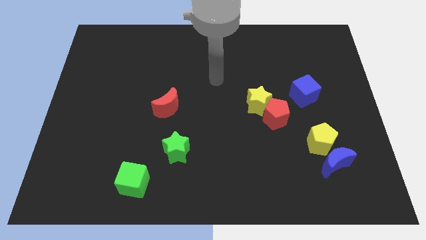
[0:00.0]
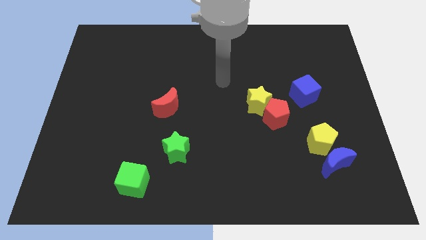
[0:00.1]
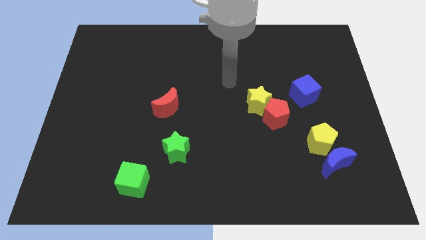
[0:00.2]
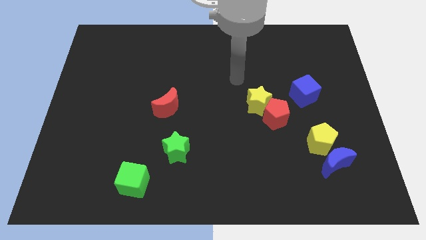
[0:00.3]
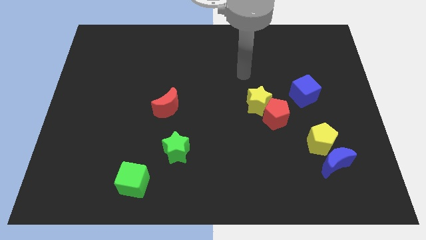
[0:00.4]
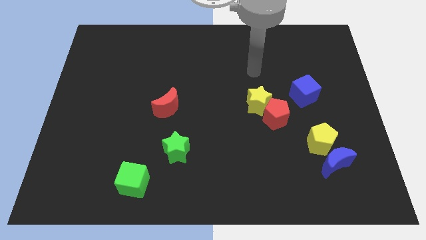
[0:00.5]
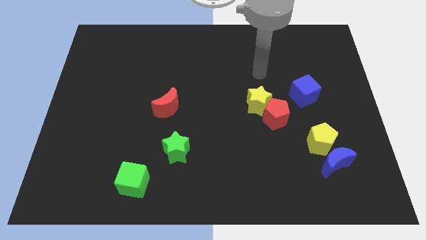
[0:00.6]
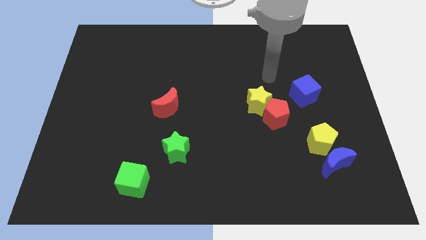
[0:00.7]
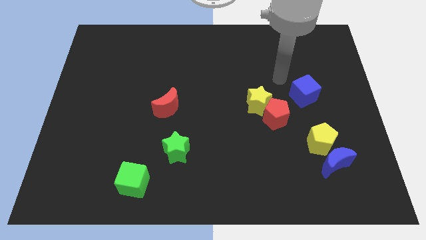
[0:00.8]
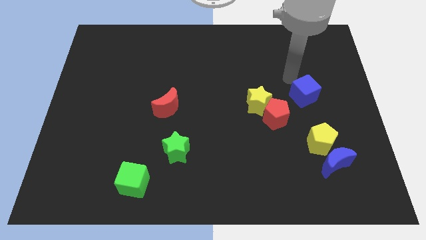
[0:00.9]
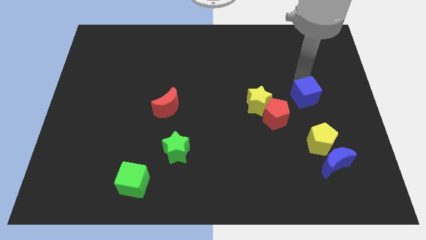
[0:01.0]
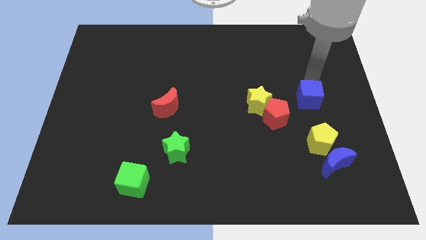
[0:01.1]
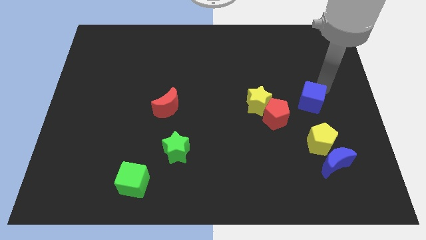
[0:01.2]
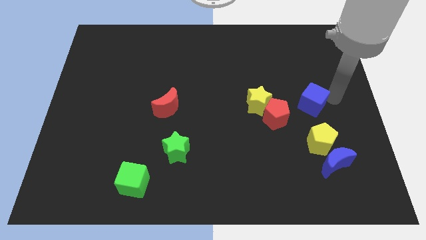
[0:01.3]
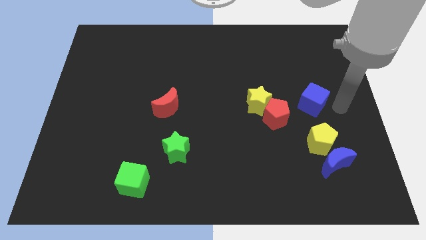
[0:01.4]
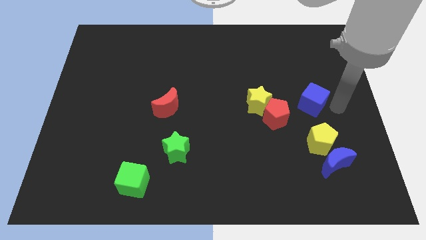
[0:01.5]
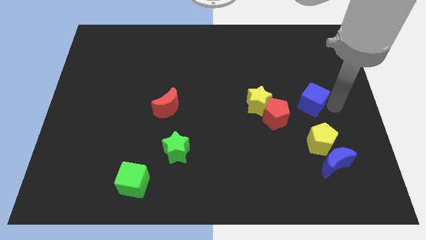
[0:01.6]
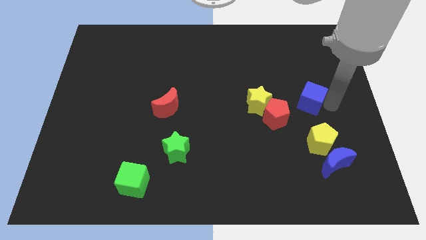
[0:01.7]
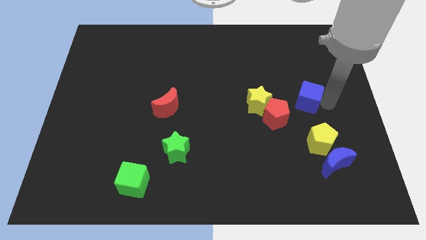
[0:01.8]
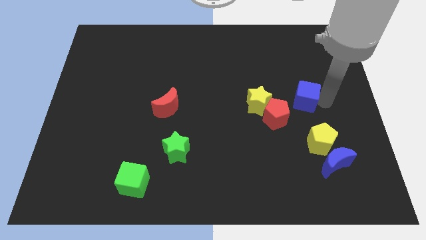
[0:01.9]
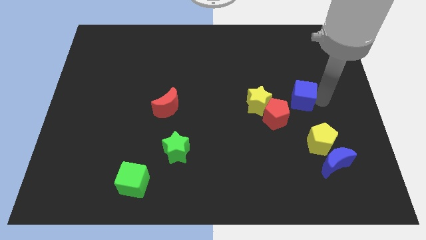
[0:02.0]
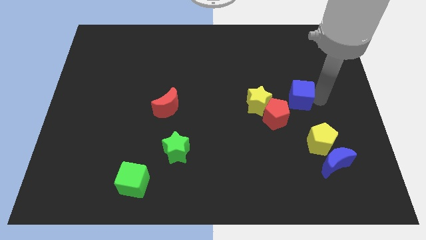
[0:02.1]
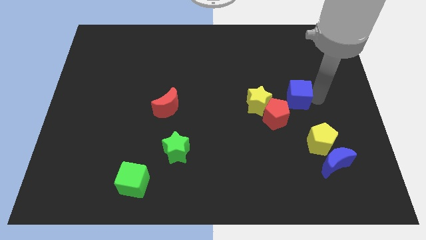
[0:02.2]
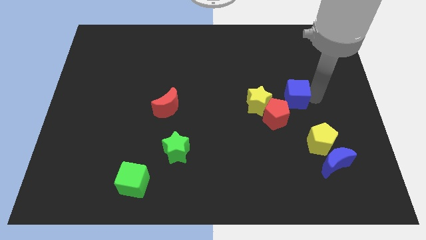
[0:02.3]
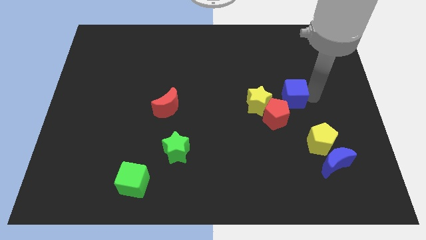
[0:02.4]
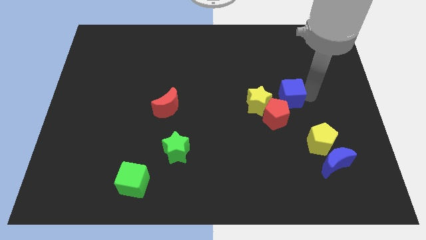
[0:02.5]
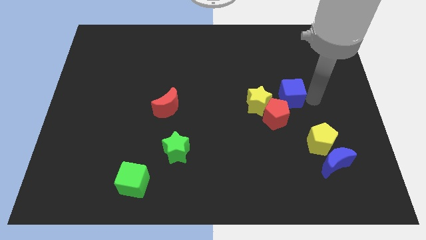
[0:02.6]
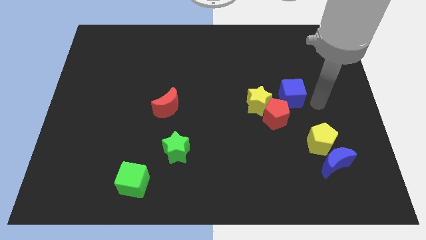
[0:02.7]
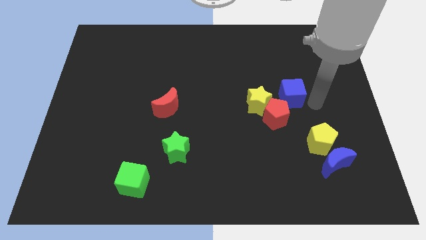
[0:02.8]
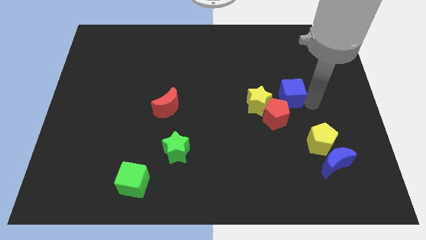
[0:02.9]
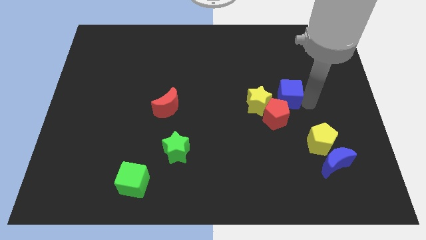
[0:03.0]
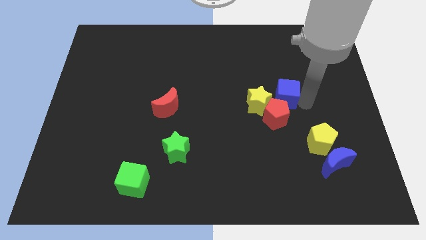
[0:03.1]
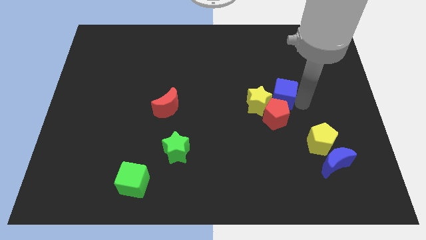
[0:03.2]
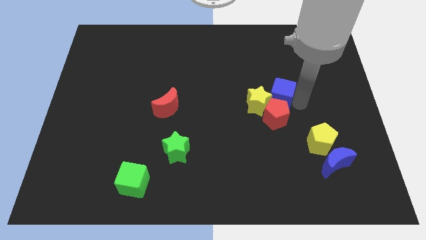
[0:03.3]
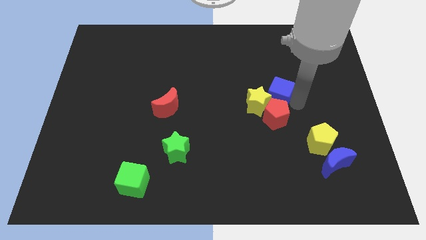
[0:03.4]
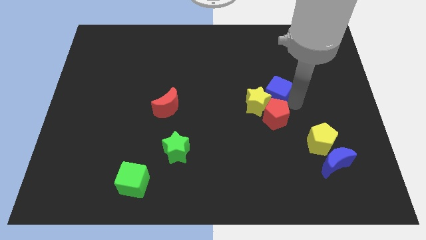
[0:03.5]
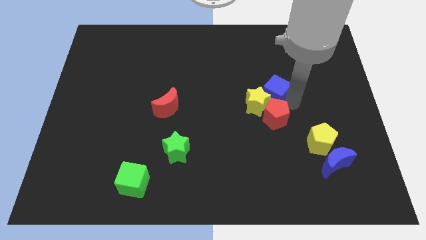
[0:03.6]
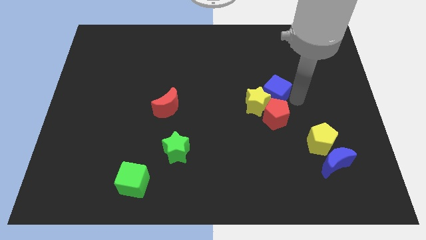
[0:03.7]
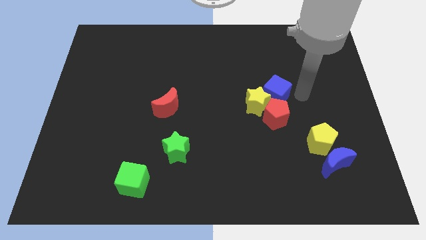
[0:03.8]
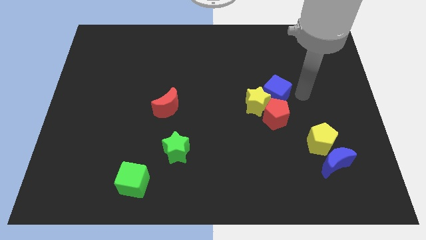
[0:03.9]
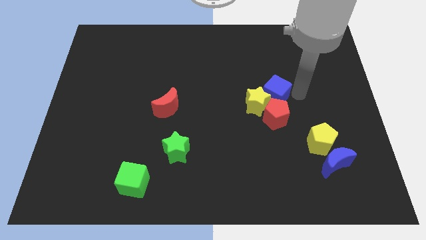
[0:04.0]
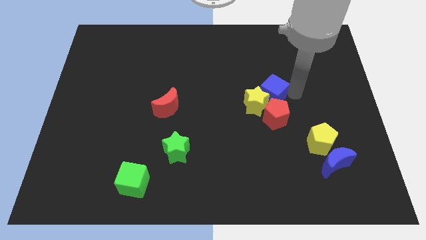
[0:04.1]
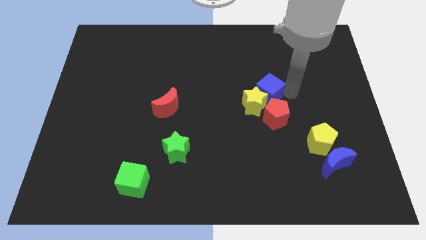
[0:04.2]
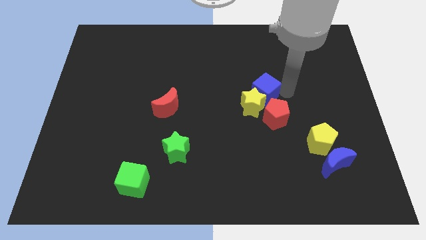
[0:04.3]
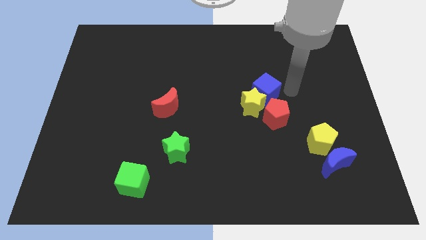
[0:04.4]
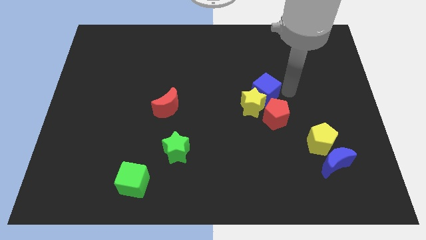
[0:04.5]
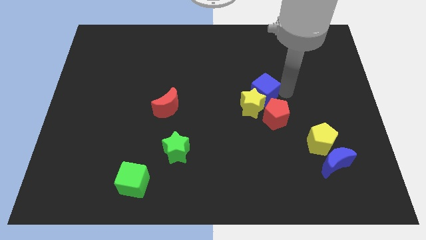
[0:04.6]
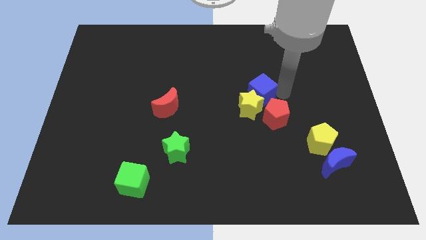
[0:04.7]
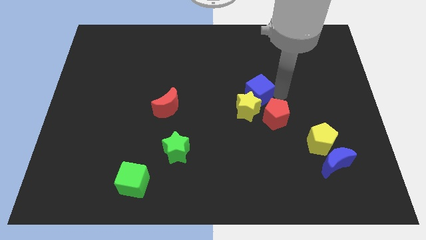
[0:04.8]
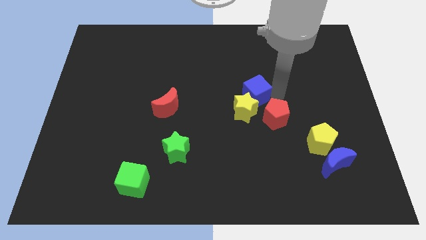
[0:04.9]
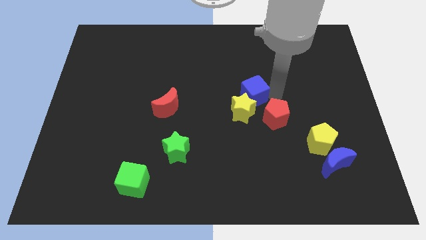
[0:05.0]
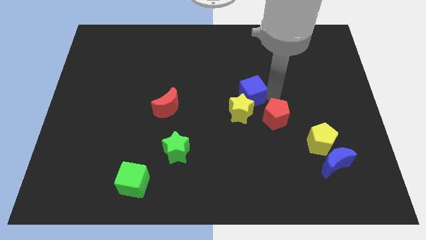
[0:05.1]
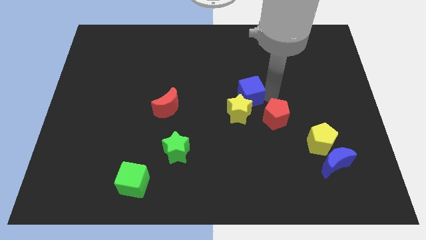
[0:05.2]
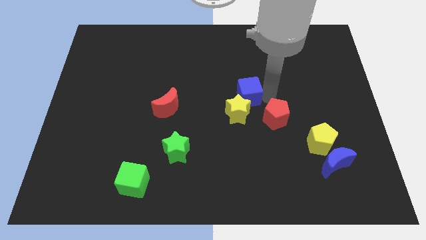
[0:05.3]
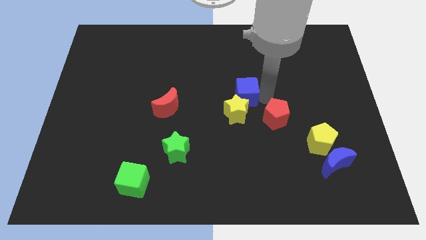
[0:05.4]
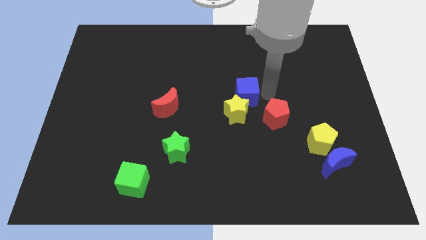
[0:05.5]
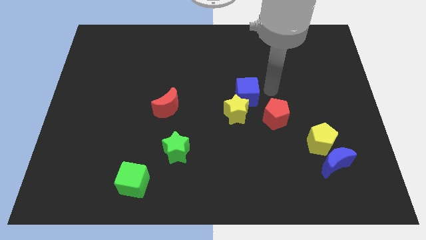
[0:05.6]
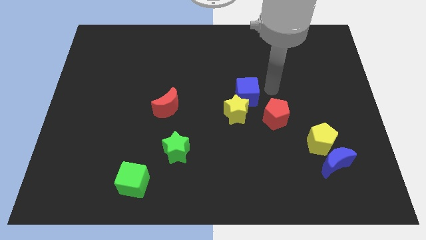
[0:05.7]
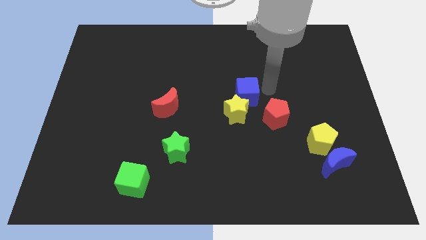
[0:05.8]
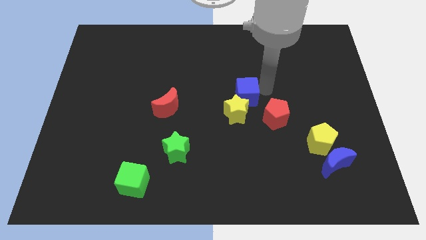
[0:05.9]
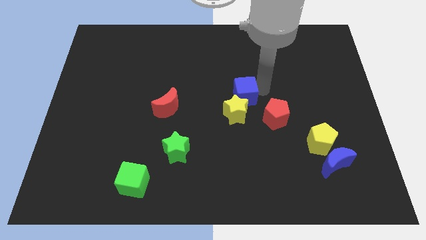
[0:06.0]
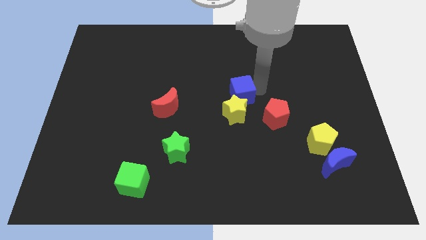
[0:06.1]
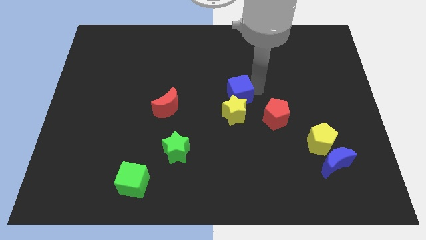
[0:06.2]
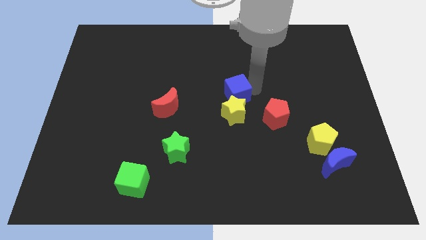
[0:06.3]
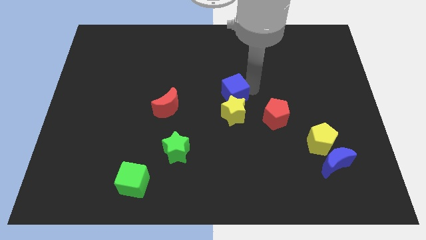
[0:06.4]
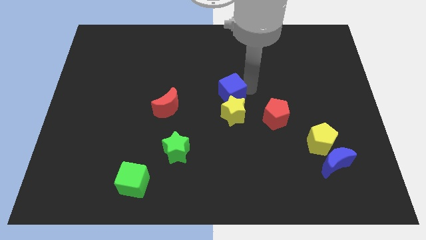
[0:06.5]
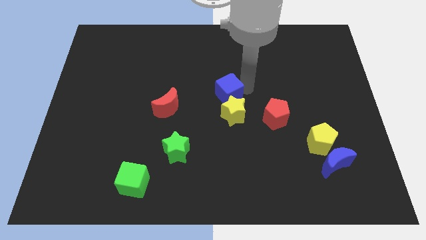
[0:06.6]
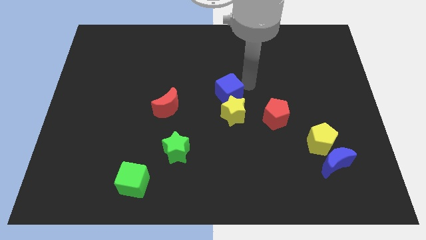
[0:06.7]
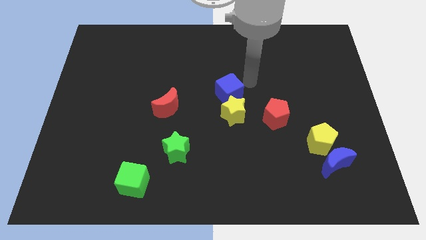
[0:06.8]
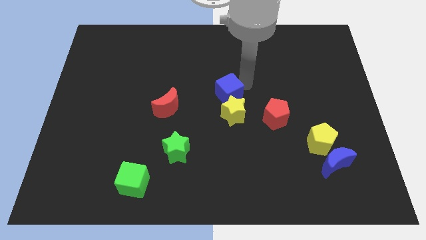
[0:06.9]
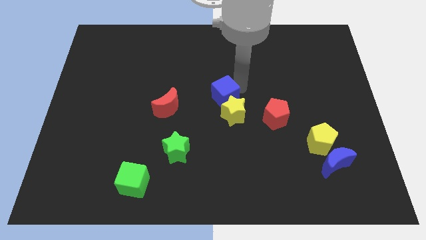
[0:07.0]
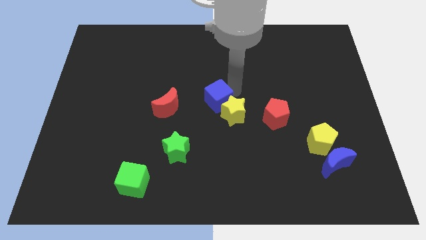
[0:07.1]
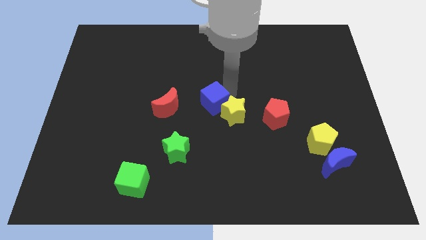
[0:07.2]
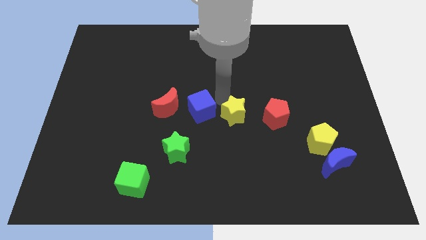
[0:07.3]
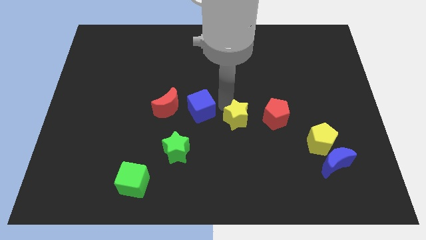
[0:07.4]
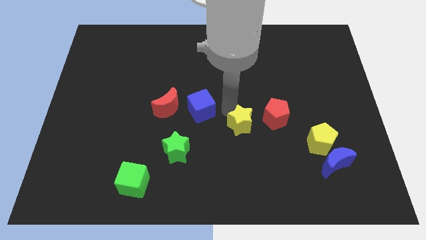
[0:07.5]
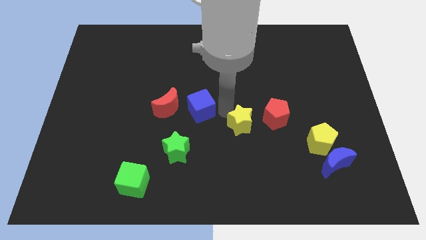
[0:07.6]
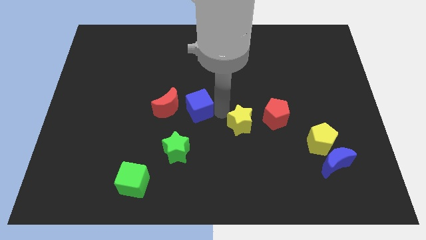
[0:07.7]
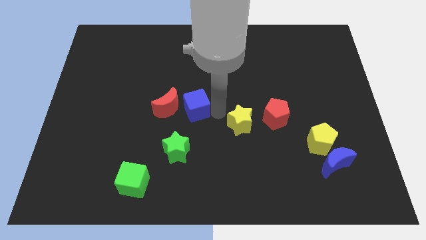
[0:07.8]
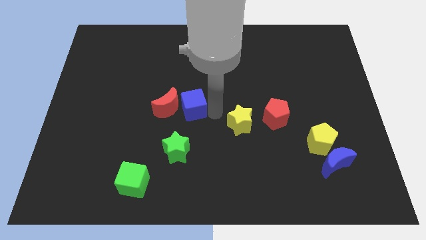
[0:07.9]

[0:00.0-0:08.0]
slide the blue cube towards the red moon
